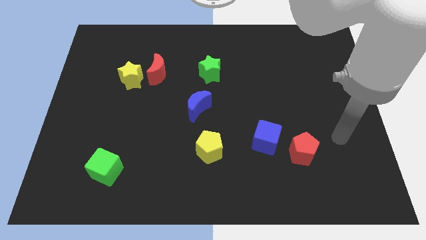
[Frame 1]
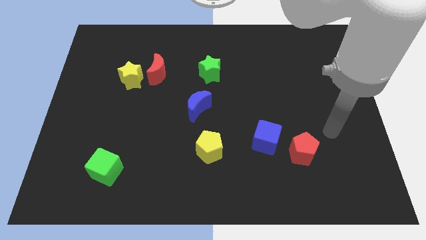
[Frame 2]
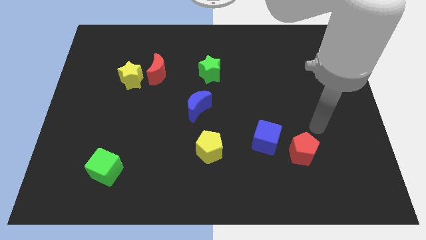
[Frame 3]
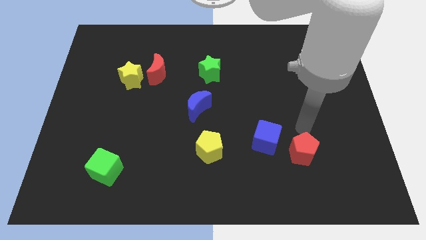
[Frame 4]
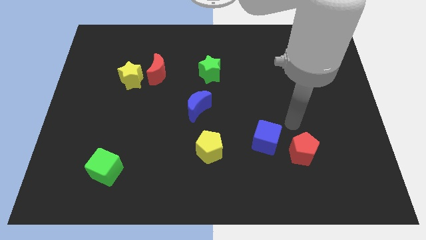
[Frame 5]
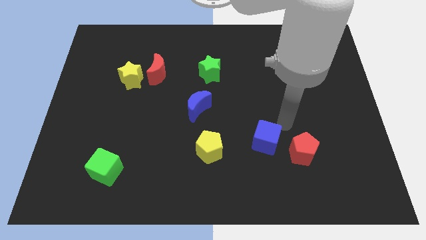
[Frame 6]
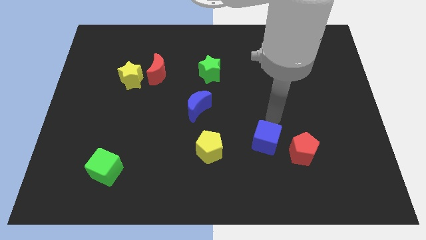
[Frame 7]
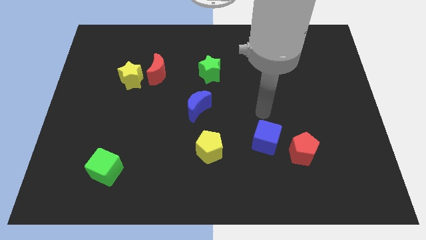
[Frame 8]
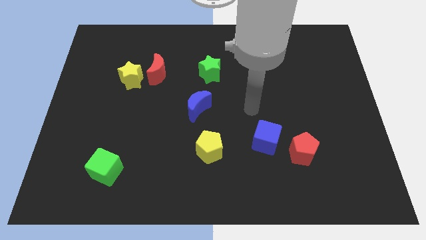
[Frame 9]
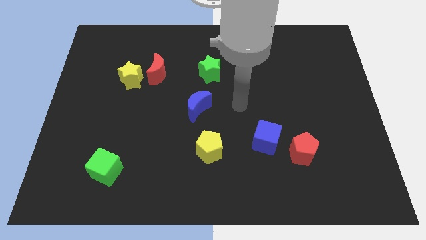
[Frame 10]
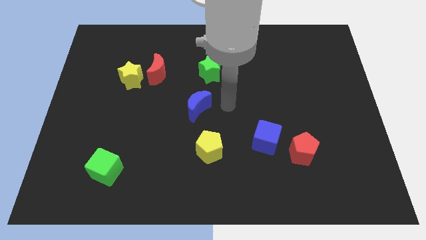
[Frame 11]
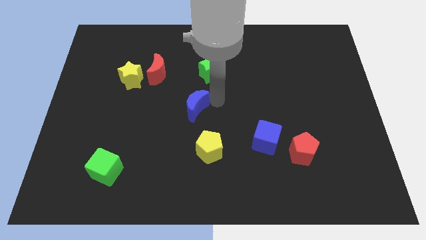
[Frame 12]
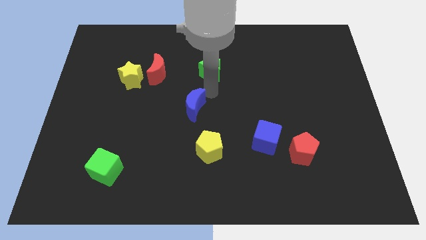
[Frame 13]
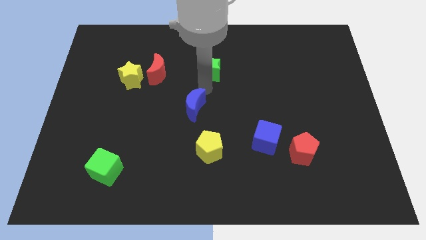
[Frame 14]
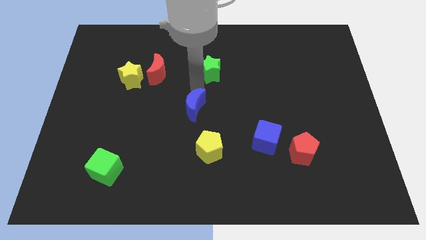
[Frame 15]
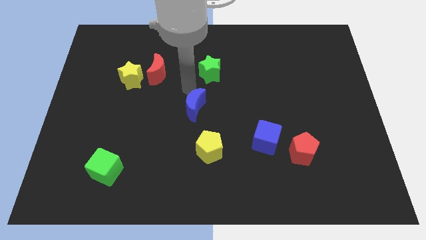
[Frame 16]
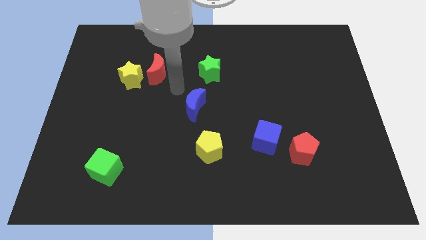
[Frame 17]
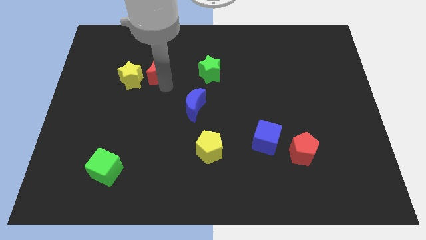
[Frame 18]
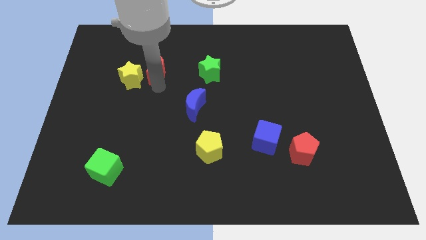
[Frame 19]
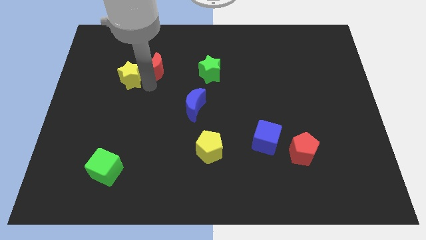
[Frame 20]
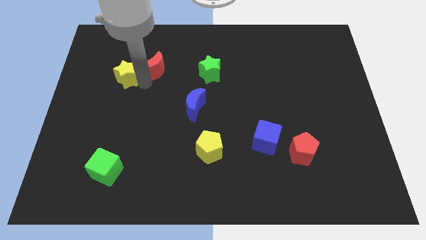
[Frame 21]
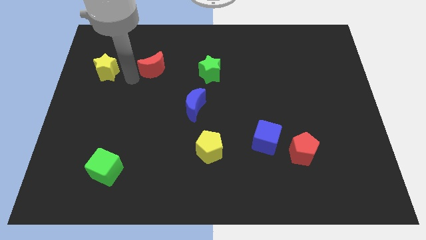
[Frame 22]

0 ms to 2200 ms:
move the red moon away from the yellow star

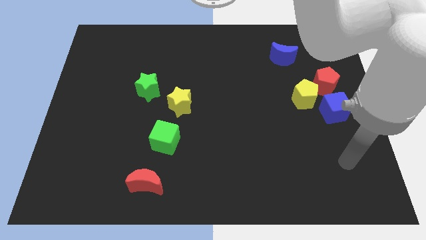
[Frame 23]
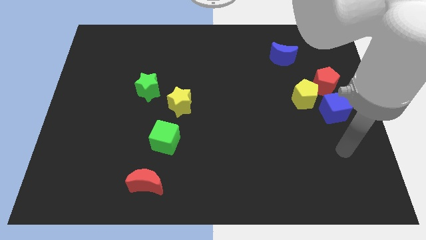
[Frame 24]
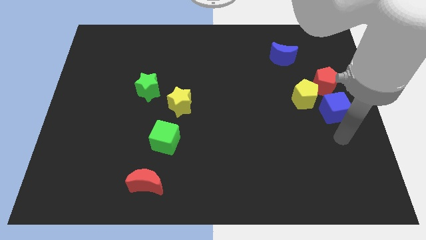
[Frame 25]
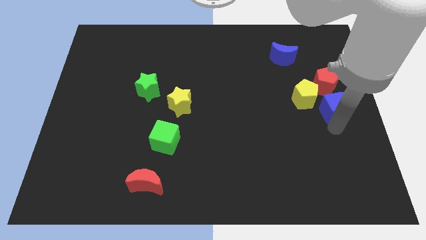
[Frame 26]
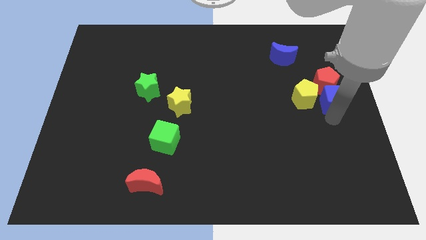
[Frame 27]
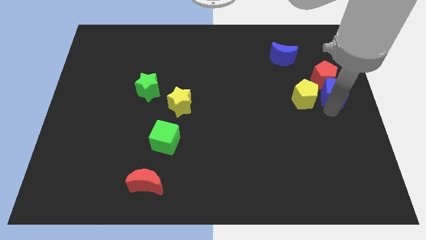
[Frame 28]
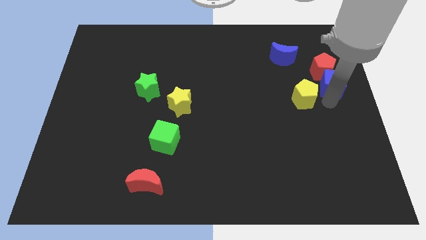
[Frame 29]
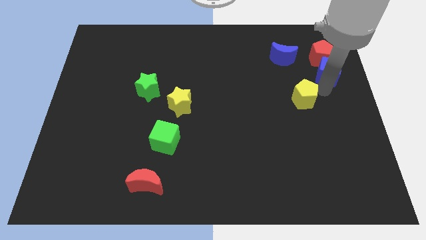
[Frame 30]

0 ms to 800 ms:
move the yellow pentagon away from the red pentagon and blue cube

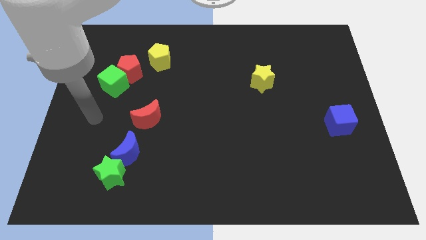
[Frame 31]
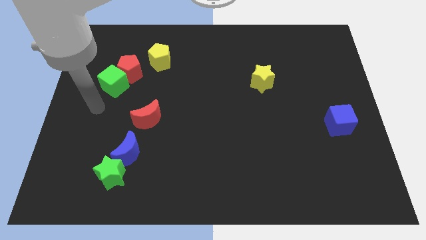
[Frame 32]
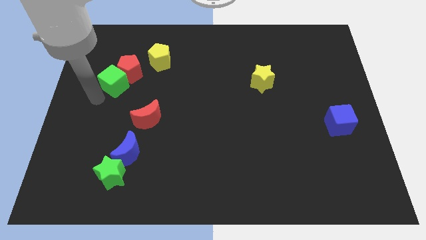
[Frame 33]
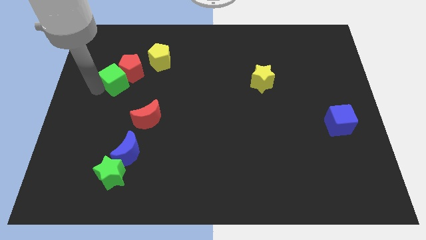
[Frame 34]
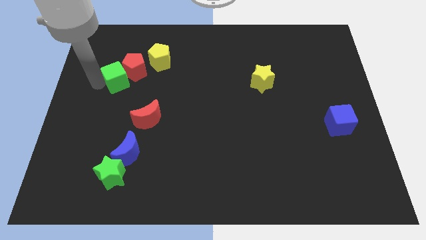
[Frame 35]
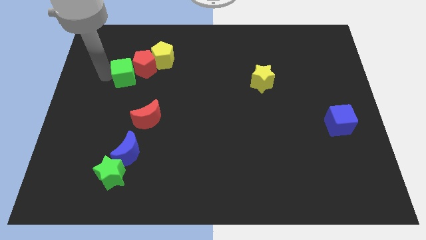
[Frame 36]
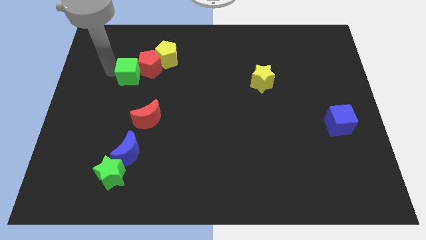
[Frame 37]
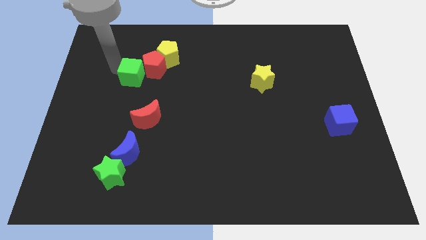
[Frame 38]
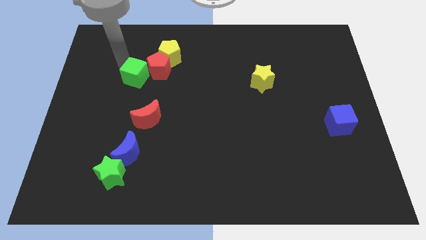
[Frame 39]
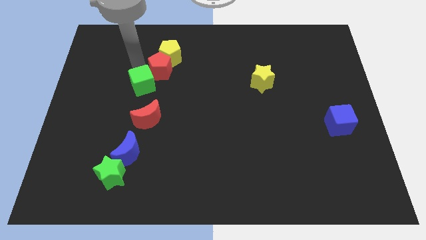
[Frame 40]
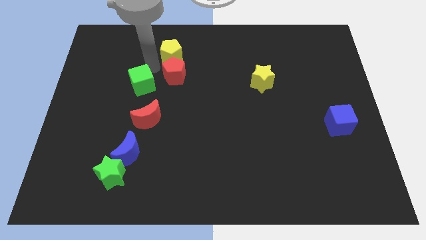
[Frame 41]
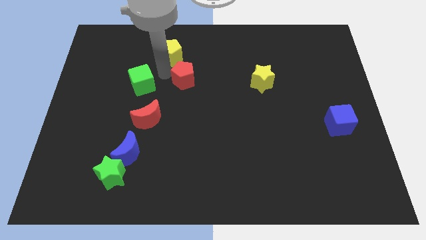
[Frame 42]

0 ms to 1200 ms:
move the green cube away from the red pentagon

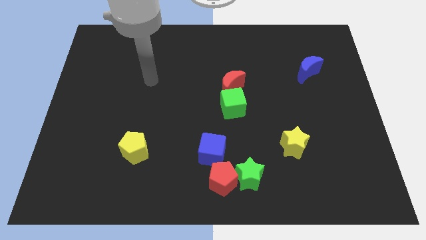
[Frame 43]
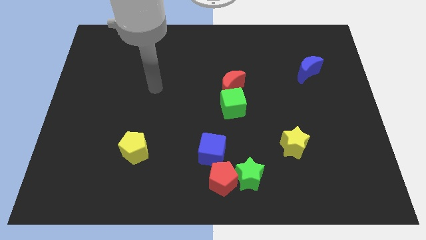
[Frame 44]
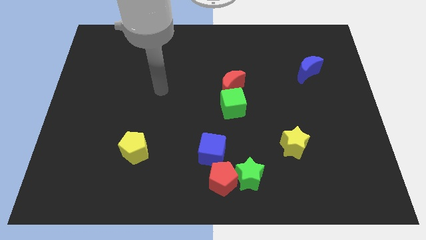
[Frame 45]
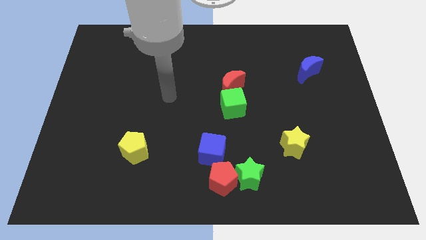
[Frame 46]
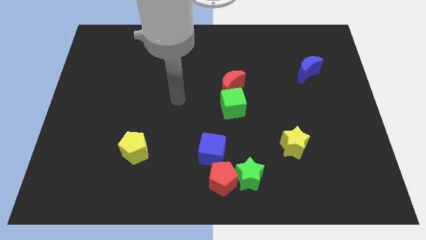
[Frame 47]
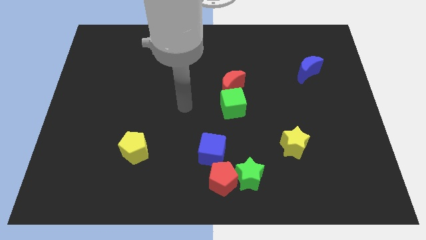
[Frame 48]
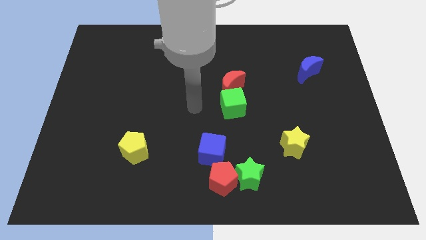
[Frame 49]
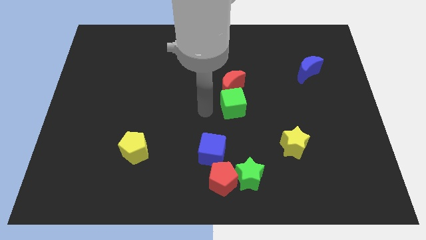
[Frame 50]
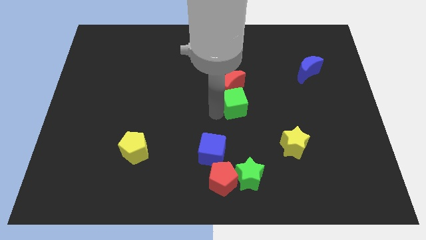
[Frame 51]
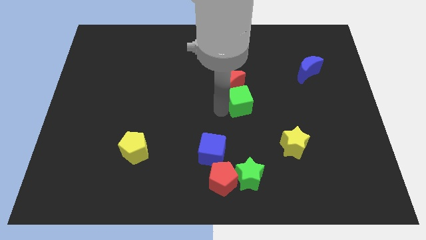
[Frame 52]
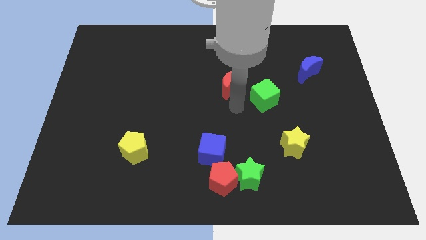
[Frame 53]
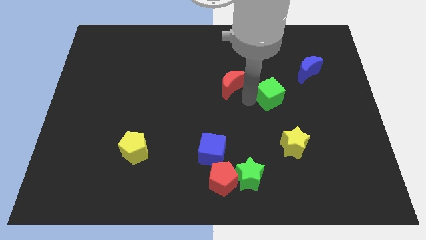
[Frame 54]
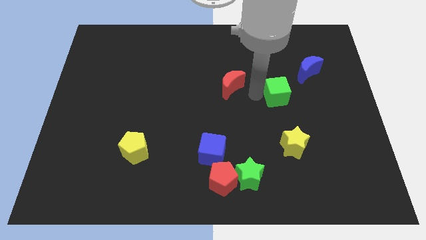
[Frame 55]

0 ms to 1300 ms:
separate the red moon from the green cube

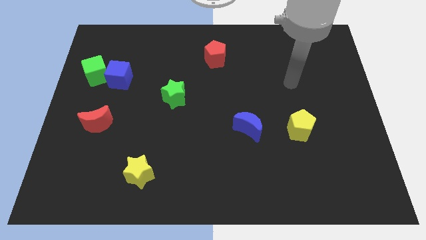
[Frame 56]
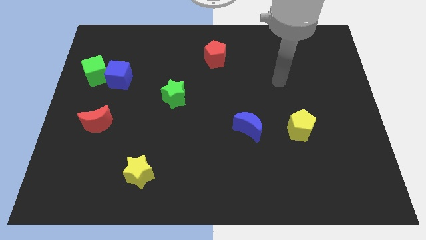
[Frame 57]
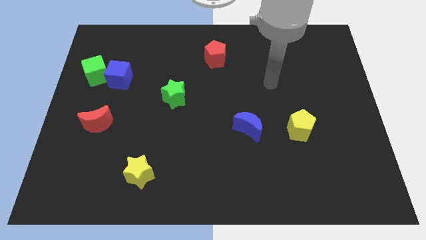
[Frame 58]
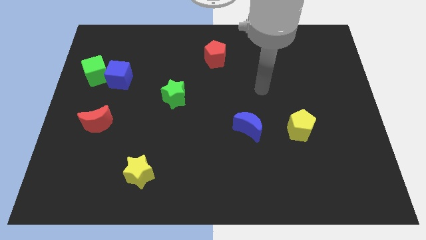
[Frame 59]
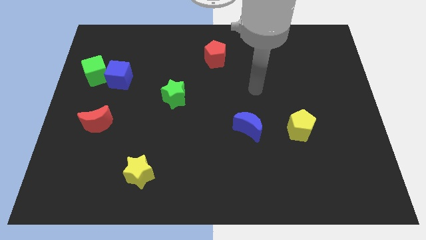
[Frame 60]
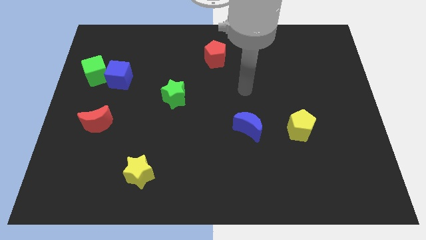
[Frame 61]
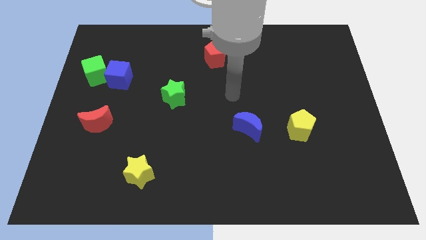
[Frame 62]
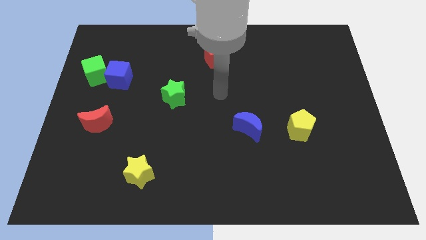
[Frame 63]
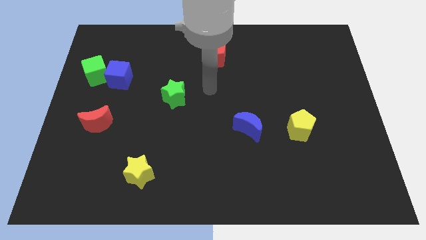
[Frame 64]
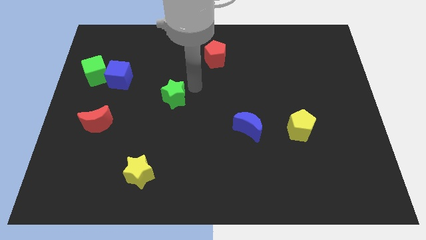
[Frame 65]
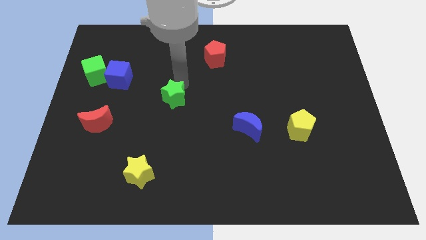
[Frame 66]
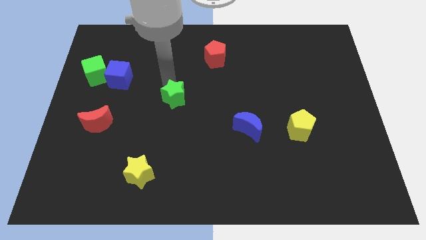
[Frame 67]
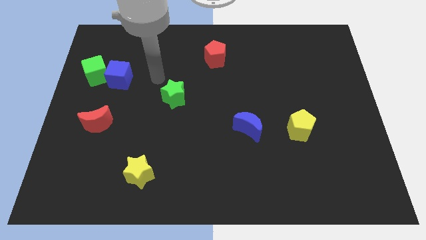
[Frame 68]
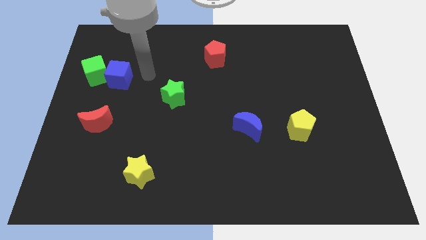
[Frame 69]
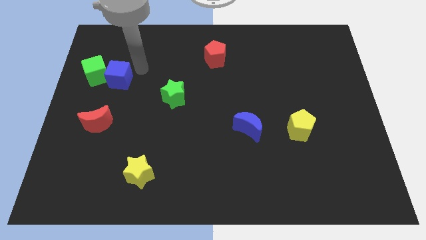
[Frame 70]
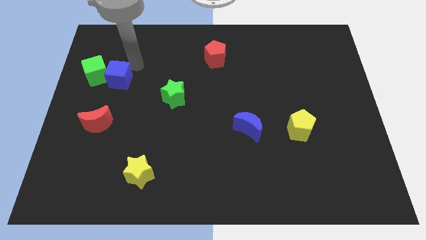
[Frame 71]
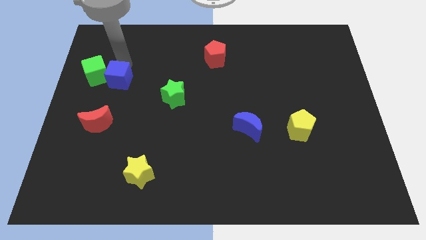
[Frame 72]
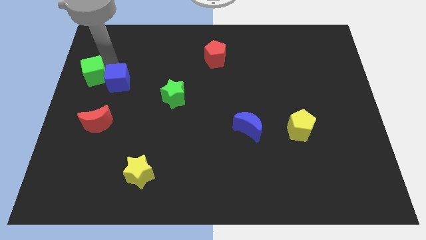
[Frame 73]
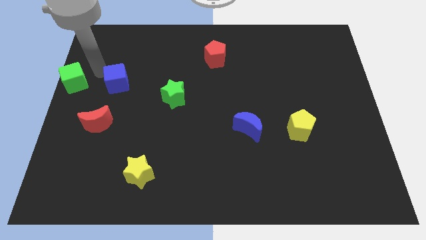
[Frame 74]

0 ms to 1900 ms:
separate the blue cube from the green cube

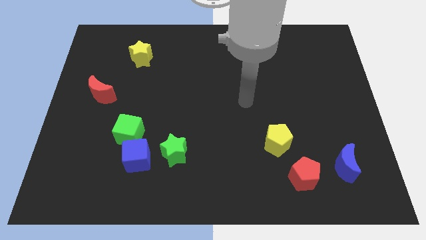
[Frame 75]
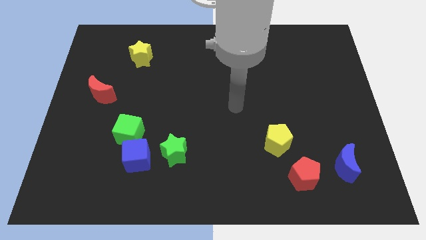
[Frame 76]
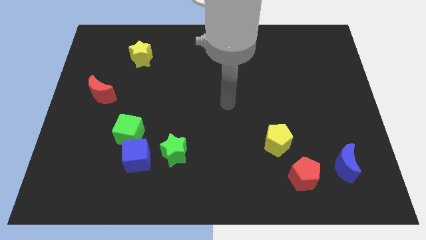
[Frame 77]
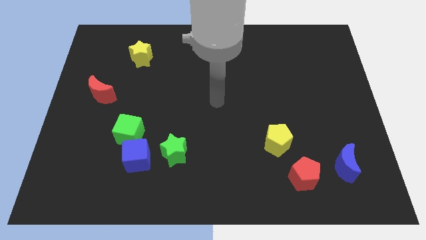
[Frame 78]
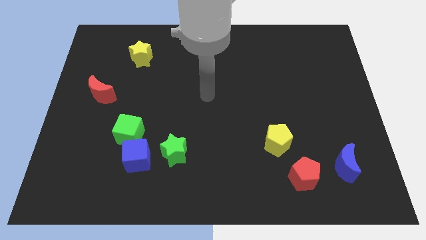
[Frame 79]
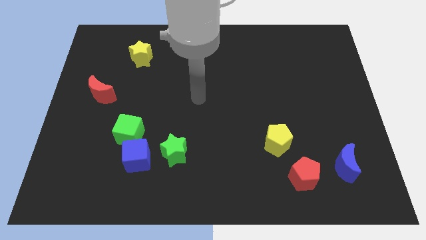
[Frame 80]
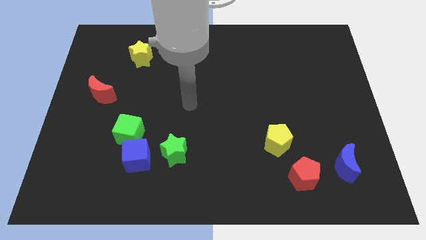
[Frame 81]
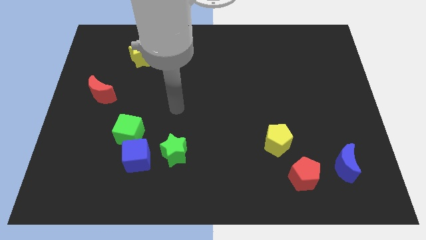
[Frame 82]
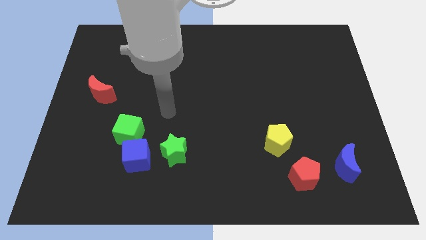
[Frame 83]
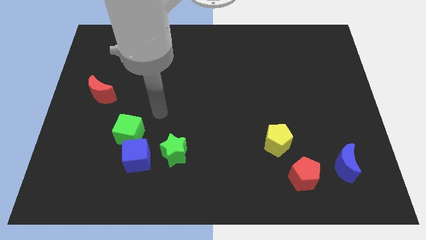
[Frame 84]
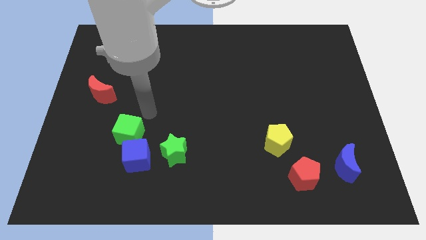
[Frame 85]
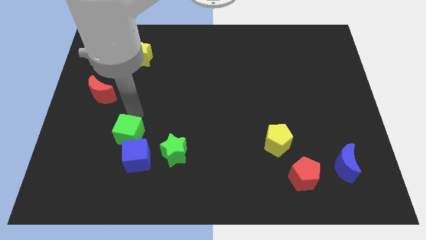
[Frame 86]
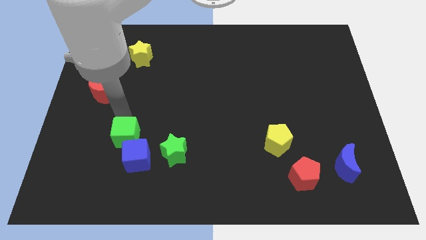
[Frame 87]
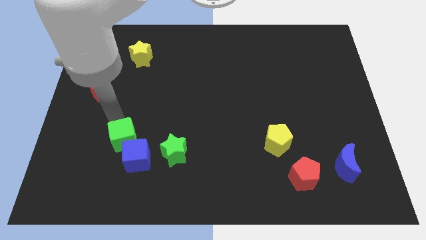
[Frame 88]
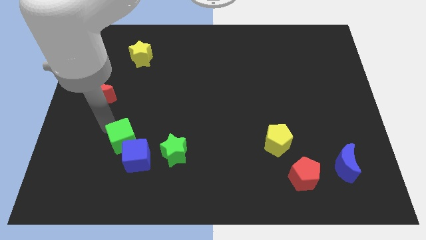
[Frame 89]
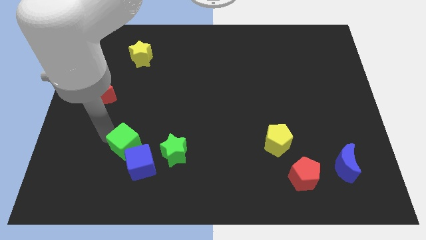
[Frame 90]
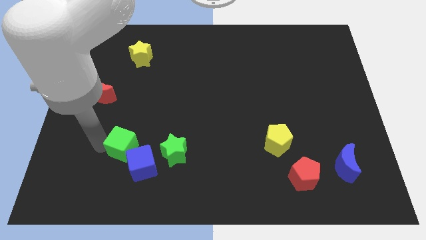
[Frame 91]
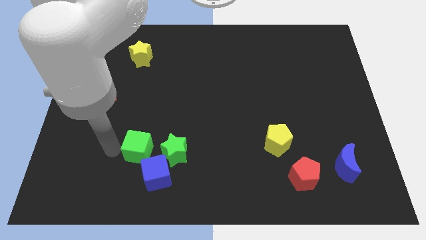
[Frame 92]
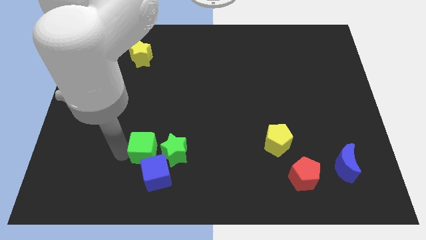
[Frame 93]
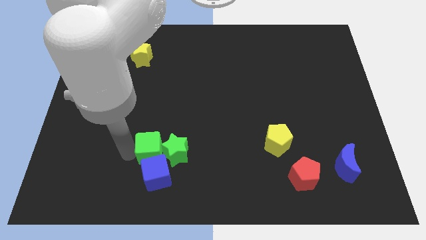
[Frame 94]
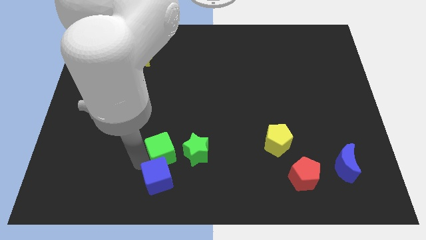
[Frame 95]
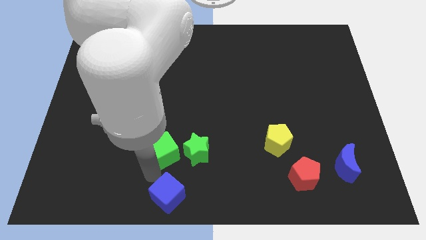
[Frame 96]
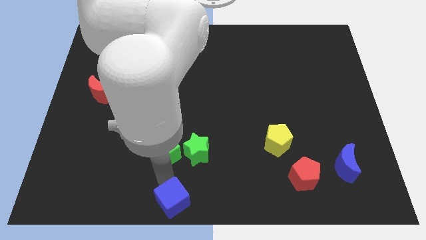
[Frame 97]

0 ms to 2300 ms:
pull the green cube apart from the blue cube
